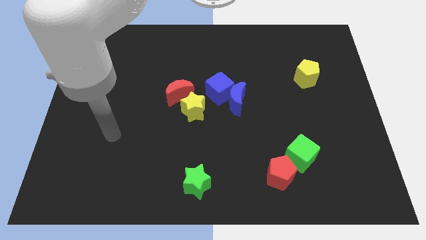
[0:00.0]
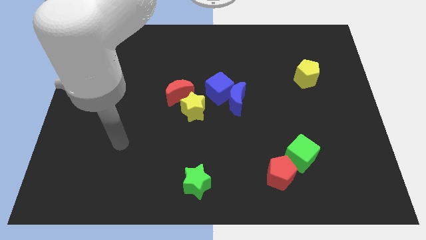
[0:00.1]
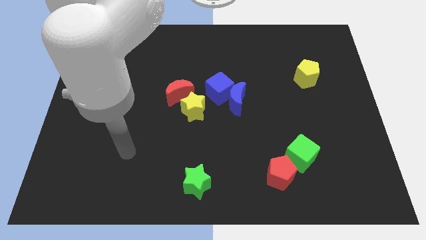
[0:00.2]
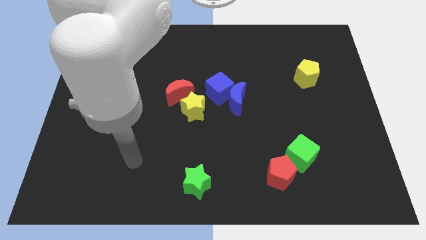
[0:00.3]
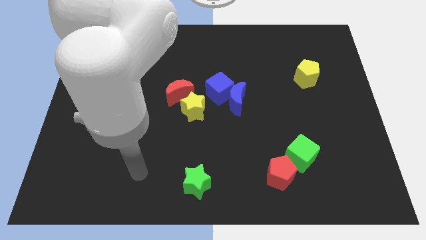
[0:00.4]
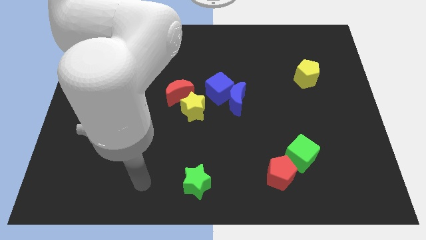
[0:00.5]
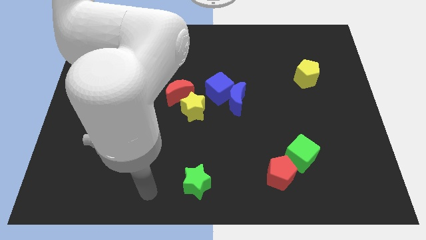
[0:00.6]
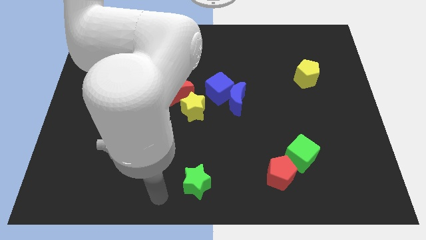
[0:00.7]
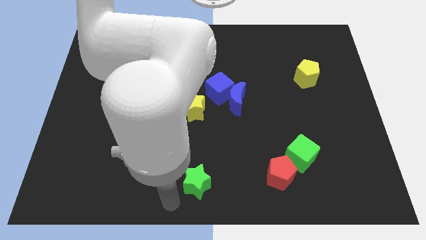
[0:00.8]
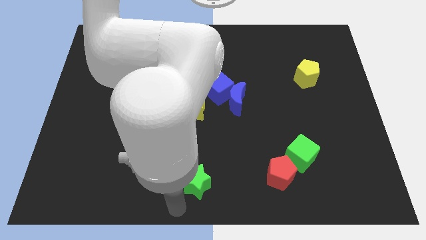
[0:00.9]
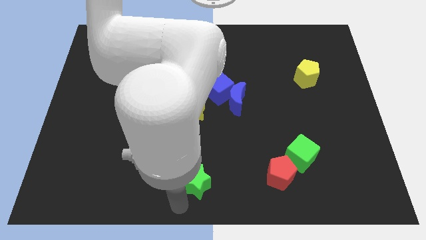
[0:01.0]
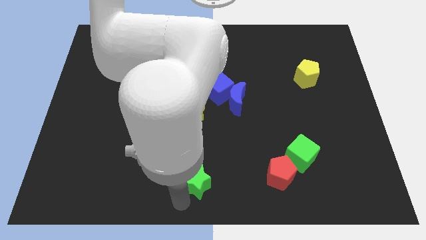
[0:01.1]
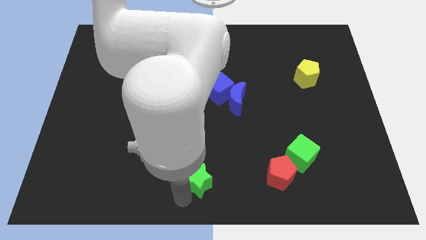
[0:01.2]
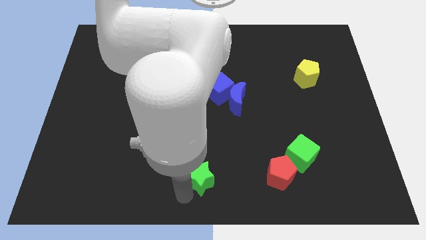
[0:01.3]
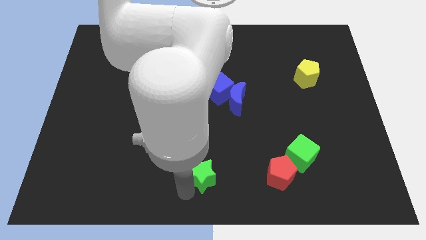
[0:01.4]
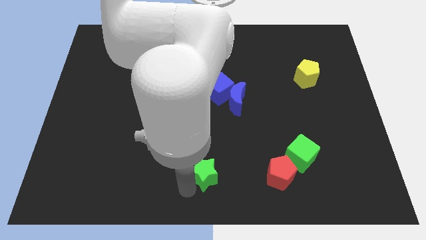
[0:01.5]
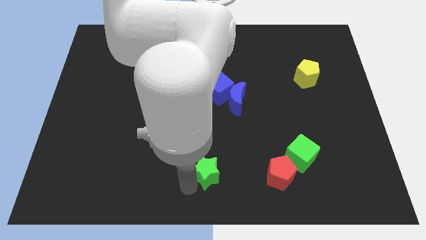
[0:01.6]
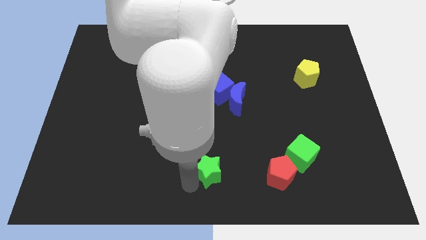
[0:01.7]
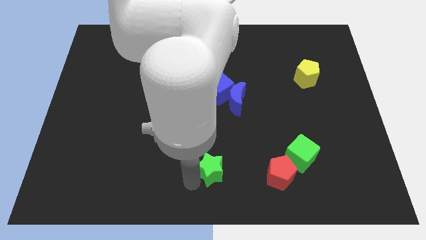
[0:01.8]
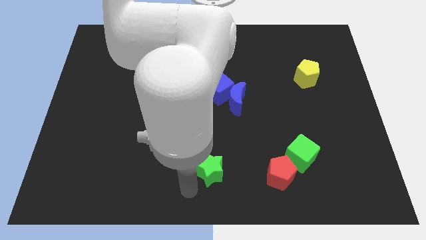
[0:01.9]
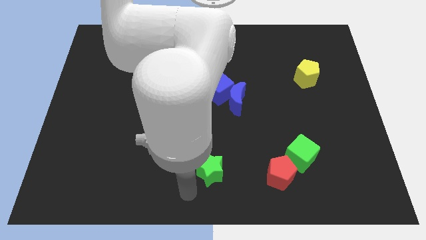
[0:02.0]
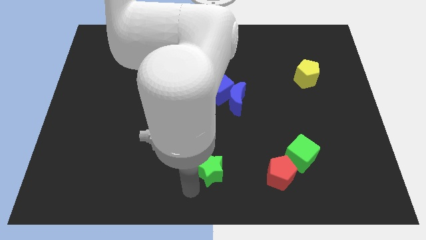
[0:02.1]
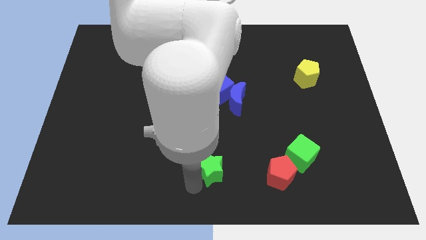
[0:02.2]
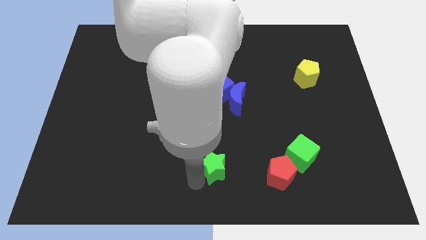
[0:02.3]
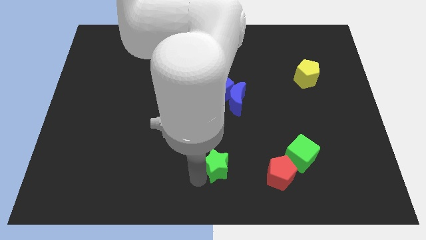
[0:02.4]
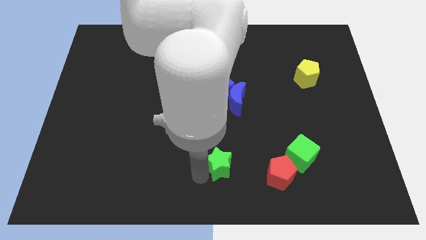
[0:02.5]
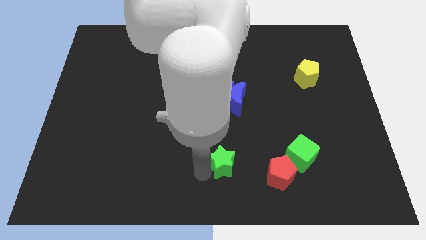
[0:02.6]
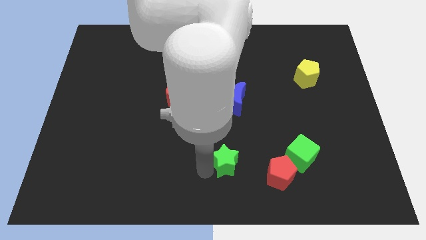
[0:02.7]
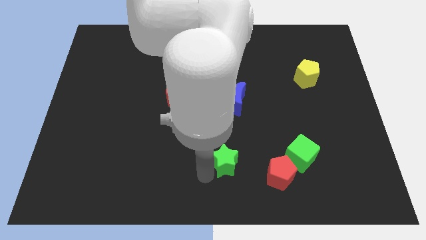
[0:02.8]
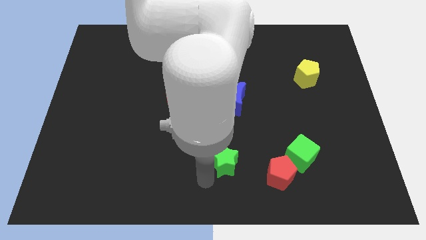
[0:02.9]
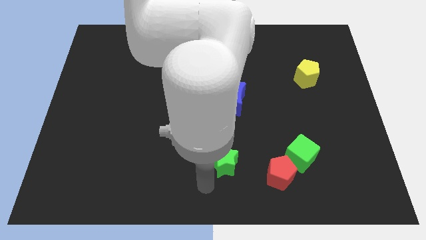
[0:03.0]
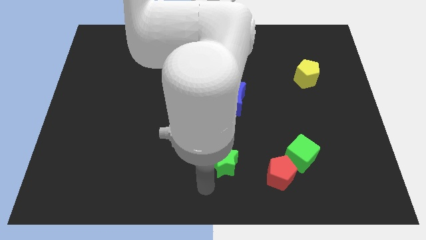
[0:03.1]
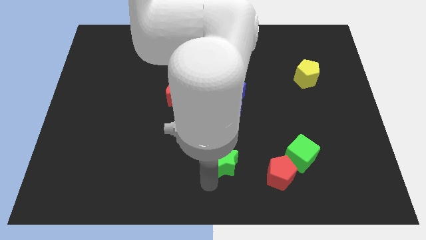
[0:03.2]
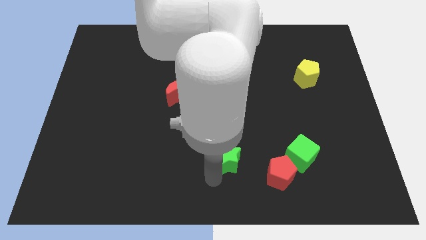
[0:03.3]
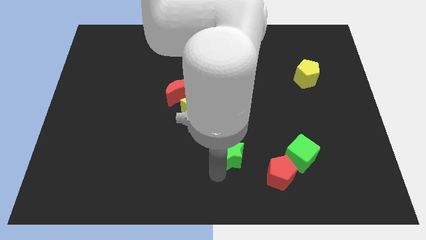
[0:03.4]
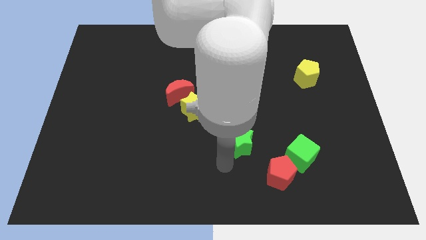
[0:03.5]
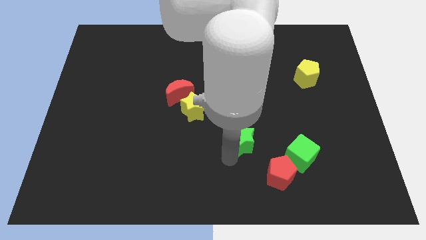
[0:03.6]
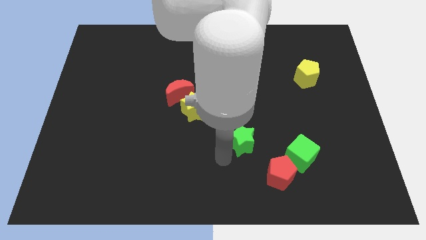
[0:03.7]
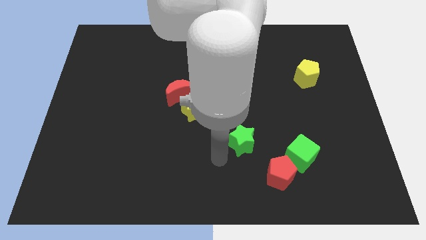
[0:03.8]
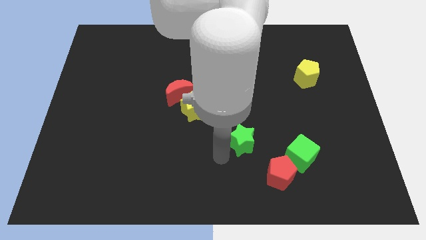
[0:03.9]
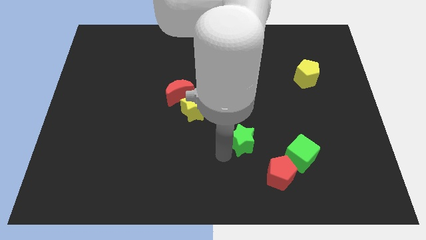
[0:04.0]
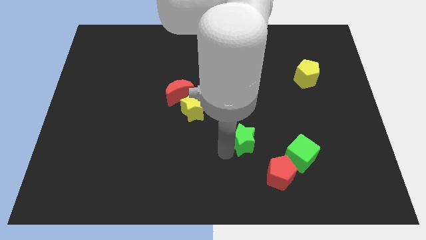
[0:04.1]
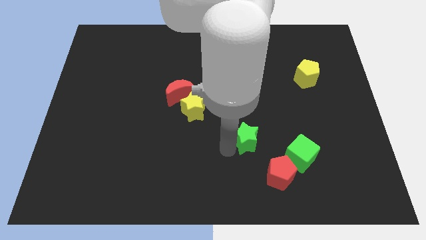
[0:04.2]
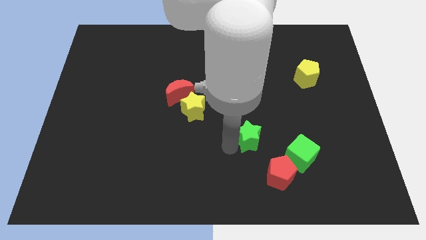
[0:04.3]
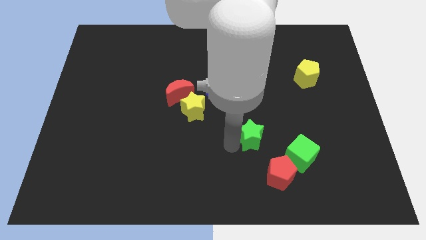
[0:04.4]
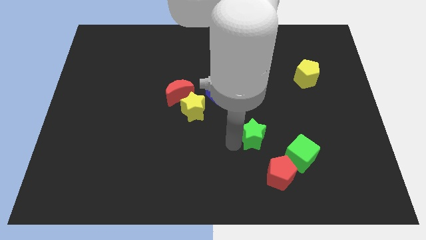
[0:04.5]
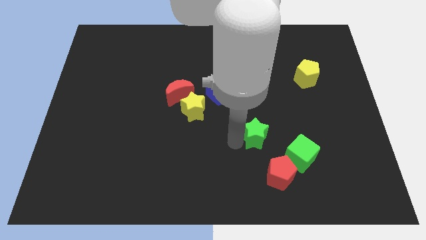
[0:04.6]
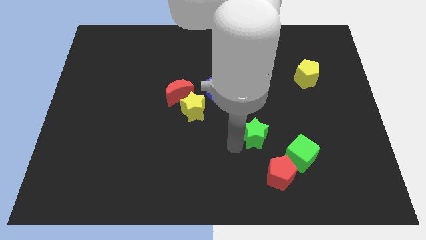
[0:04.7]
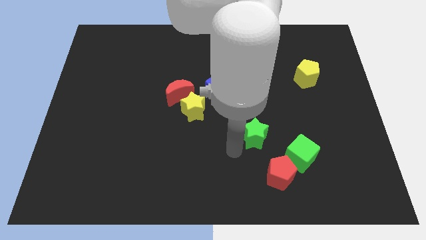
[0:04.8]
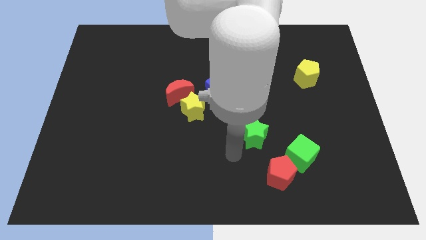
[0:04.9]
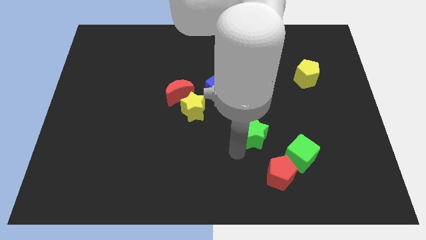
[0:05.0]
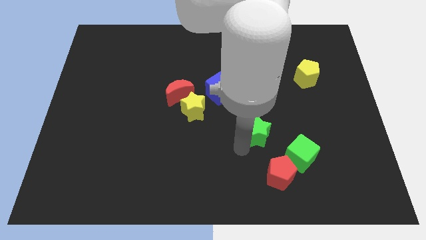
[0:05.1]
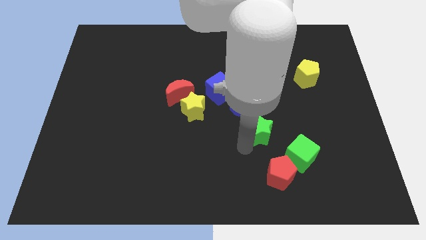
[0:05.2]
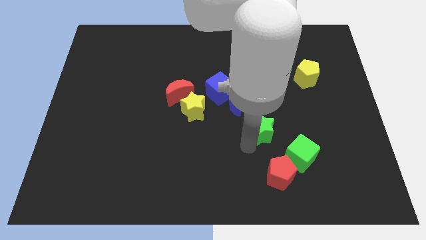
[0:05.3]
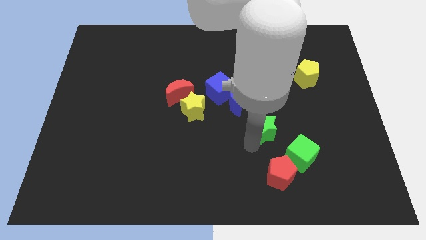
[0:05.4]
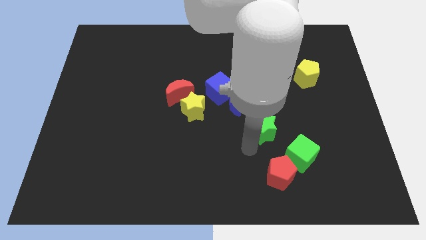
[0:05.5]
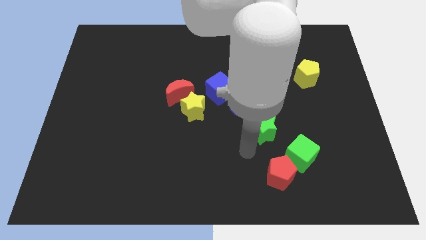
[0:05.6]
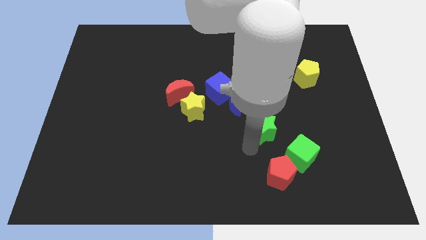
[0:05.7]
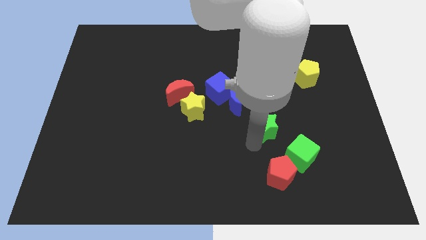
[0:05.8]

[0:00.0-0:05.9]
push the green star up and right diagonally

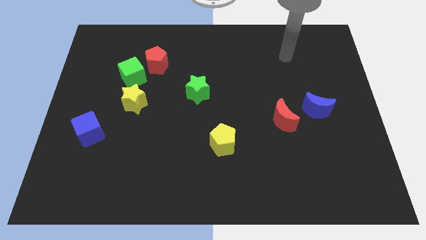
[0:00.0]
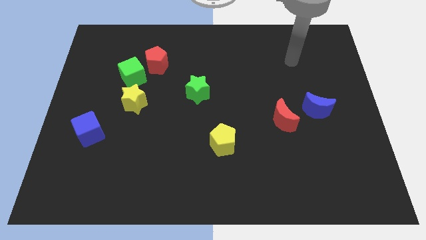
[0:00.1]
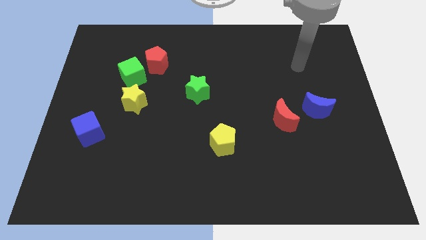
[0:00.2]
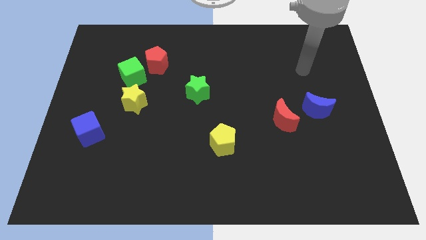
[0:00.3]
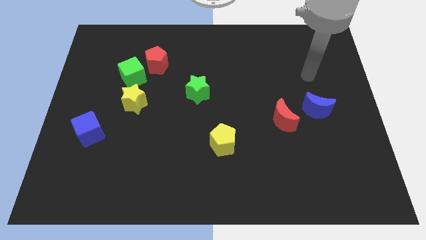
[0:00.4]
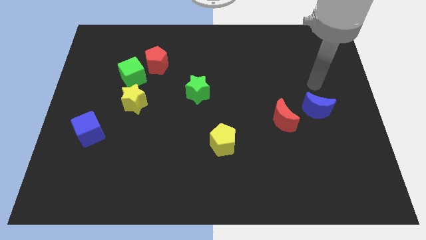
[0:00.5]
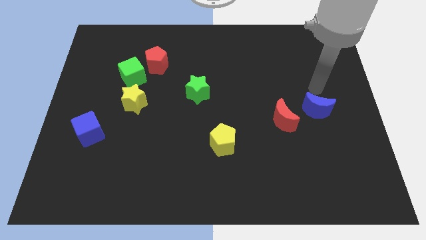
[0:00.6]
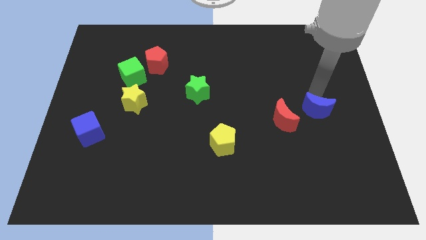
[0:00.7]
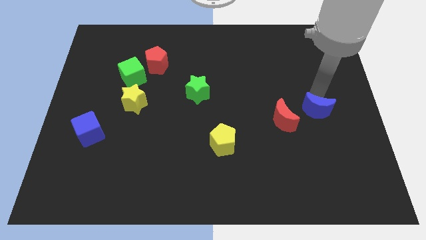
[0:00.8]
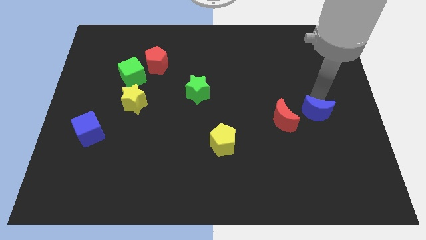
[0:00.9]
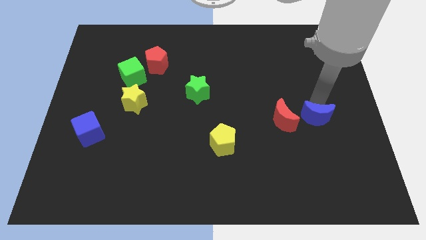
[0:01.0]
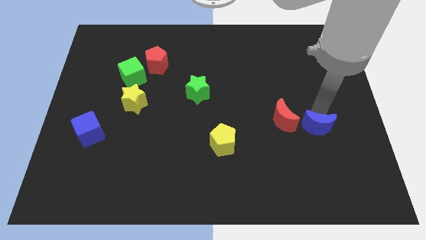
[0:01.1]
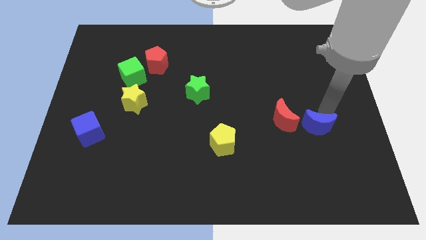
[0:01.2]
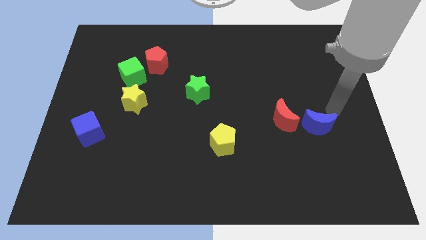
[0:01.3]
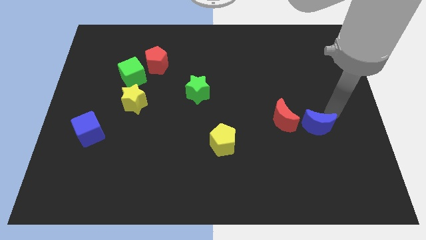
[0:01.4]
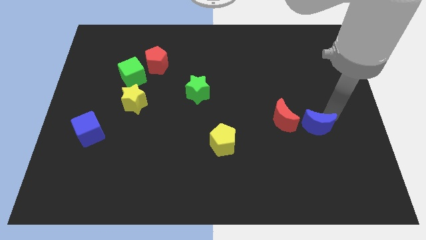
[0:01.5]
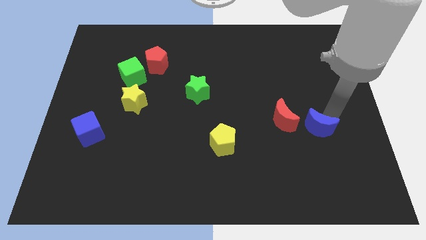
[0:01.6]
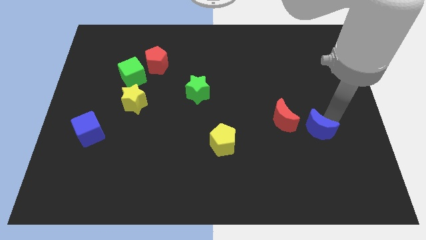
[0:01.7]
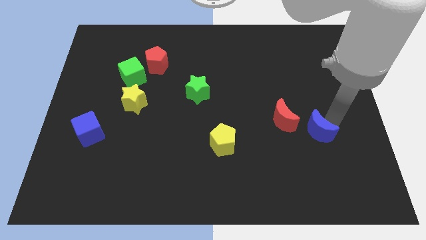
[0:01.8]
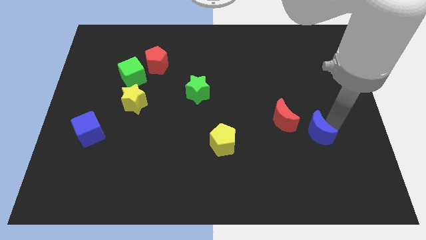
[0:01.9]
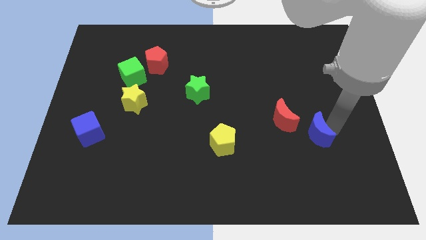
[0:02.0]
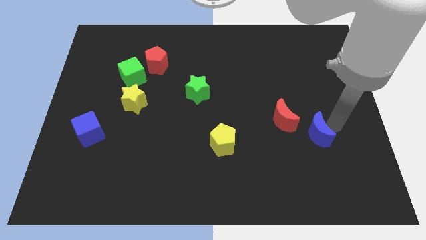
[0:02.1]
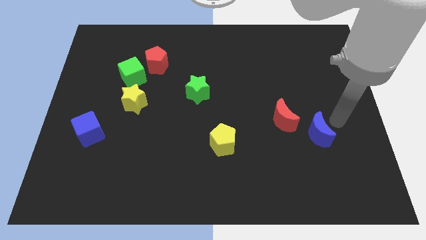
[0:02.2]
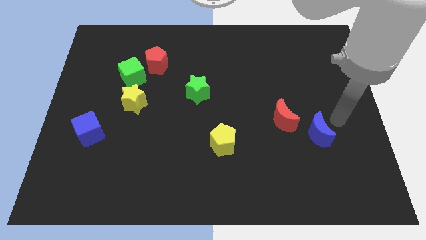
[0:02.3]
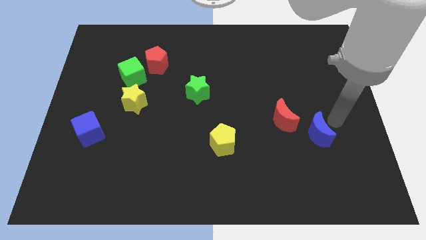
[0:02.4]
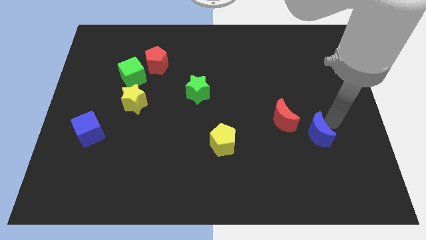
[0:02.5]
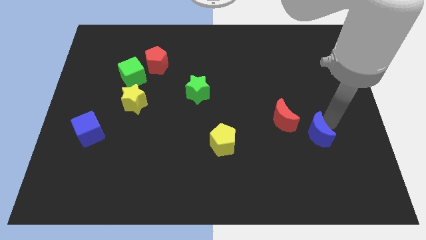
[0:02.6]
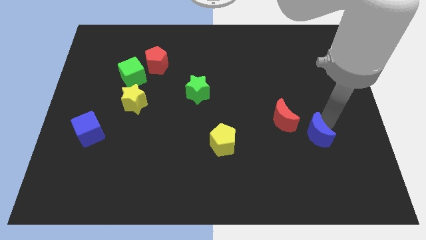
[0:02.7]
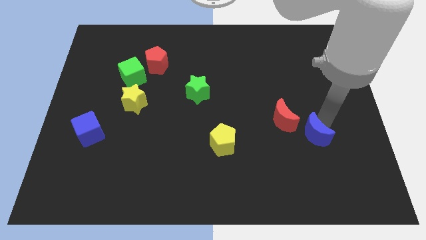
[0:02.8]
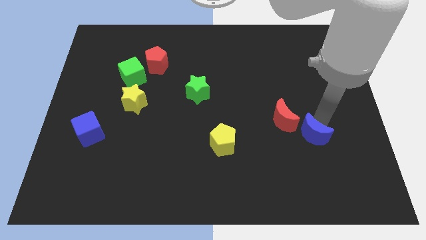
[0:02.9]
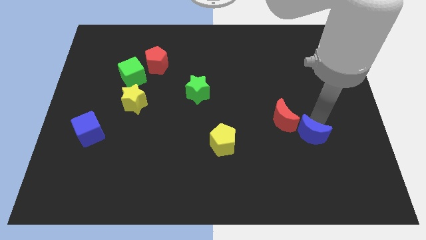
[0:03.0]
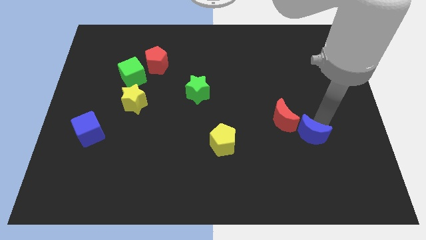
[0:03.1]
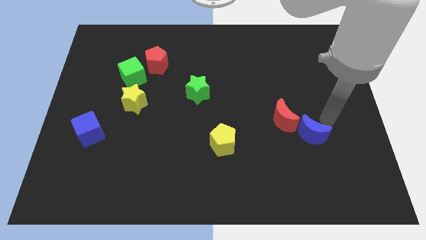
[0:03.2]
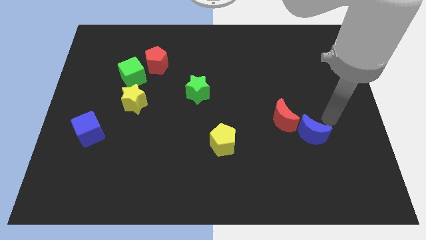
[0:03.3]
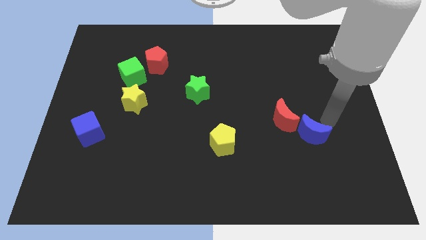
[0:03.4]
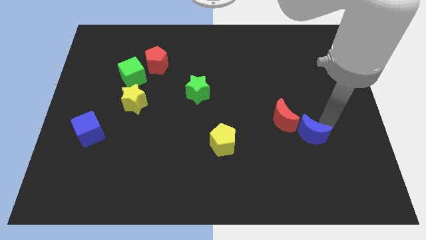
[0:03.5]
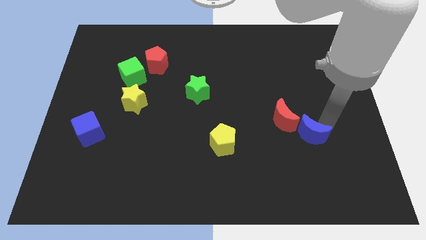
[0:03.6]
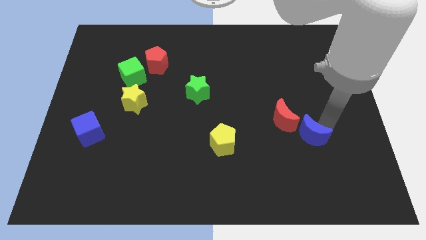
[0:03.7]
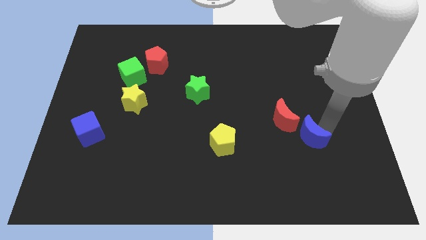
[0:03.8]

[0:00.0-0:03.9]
slightly move the blue moon down and then left
